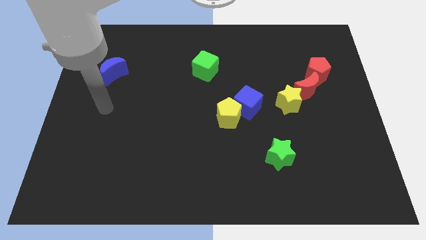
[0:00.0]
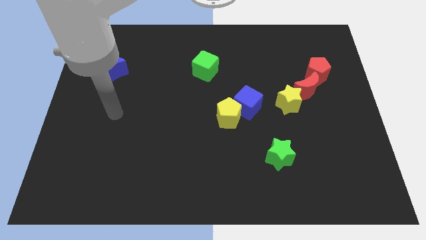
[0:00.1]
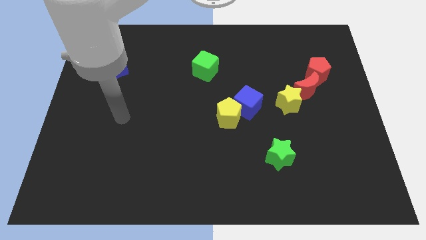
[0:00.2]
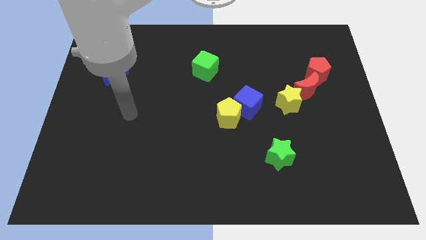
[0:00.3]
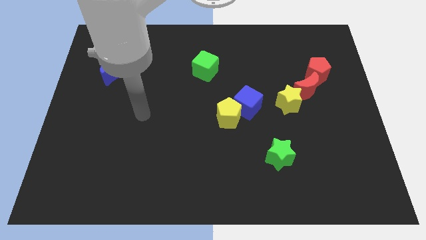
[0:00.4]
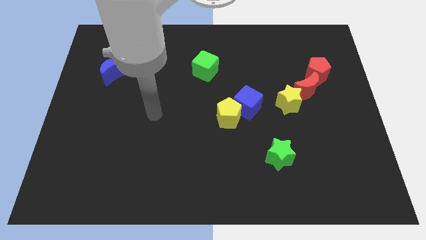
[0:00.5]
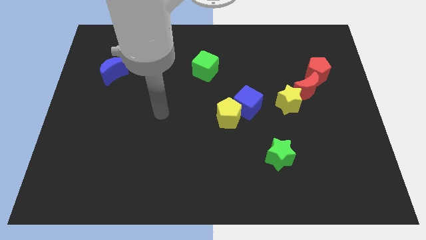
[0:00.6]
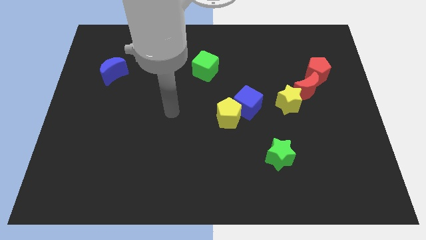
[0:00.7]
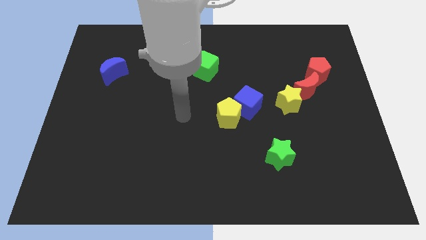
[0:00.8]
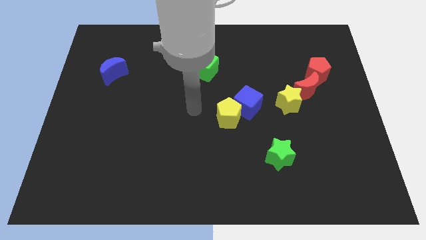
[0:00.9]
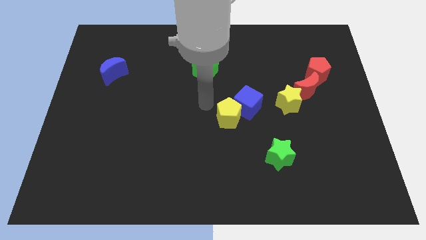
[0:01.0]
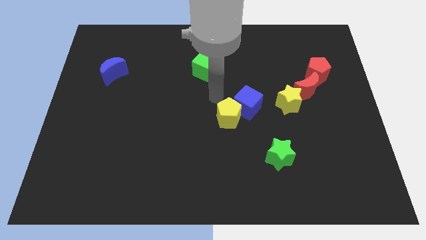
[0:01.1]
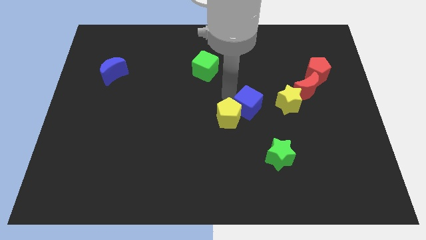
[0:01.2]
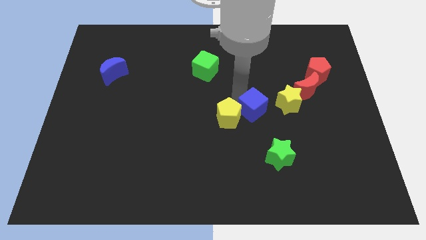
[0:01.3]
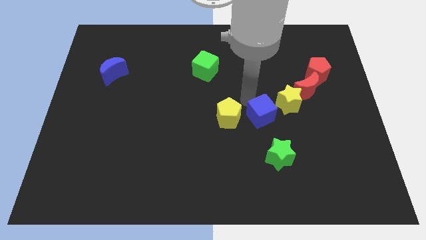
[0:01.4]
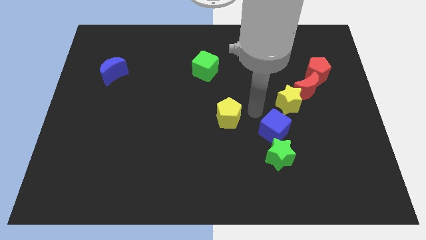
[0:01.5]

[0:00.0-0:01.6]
pull the yellow pentagon apart from the blue cube

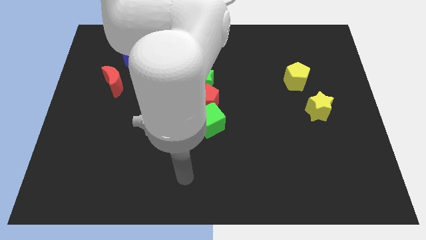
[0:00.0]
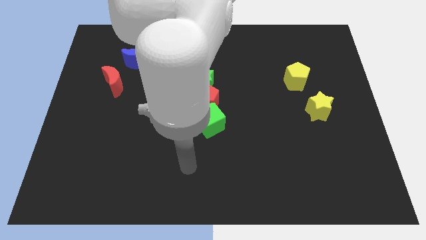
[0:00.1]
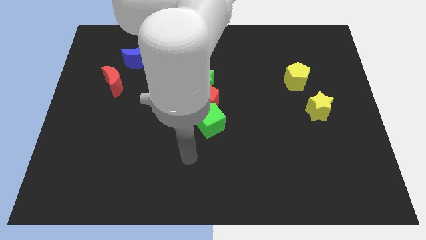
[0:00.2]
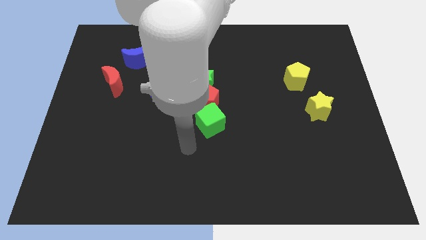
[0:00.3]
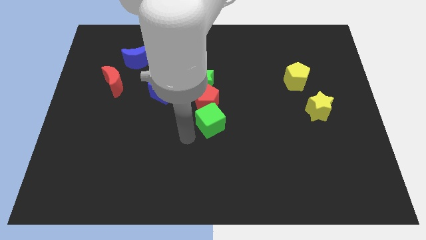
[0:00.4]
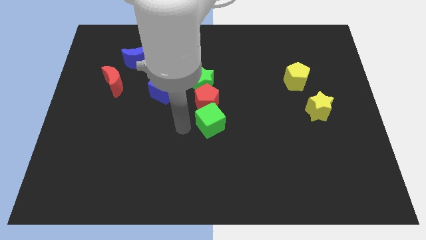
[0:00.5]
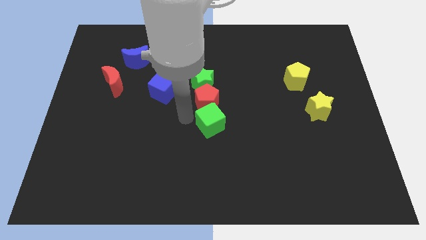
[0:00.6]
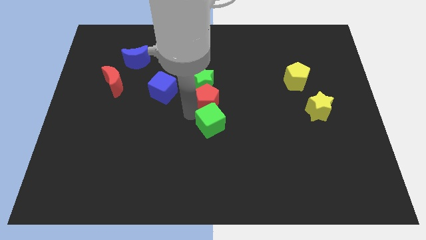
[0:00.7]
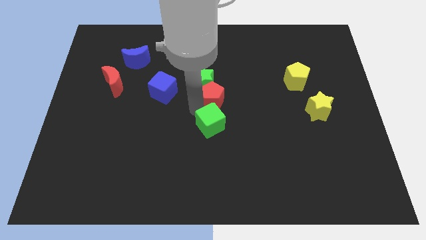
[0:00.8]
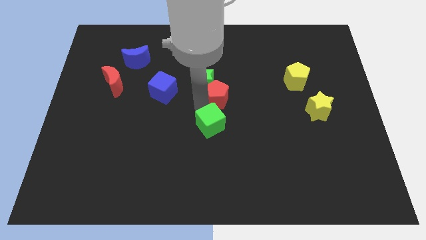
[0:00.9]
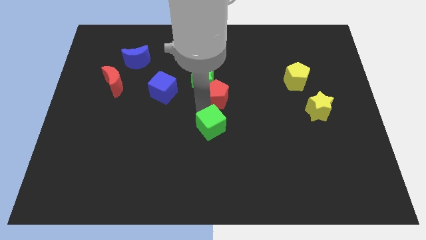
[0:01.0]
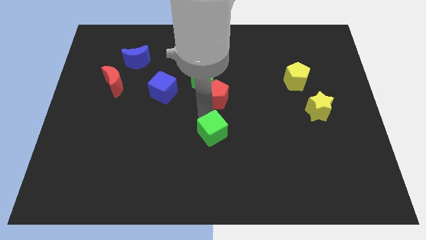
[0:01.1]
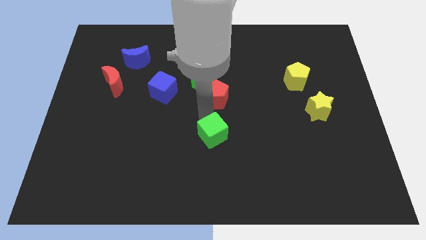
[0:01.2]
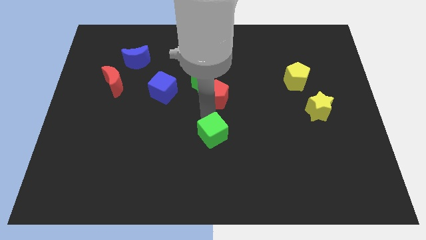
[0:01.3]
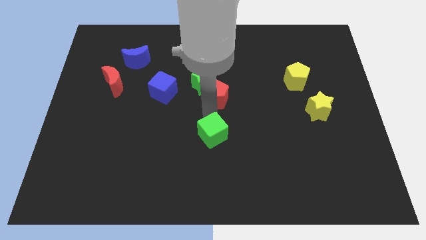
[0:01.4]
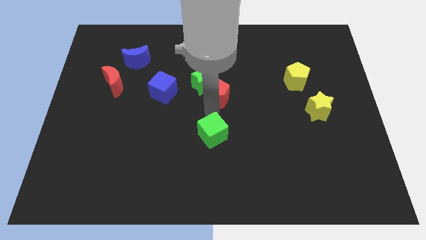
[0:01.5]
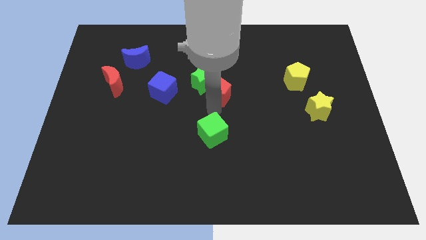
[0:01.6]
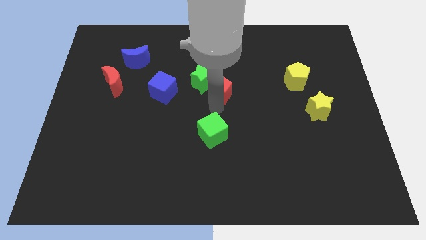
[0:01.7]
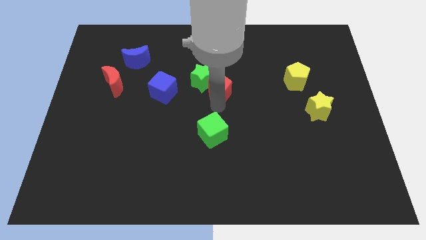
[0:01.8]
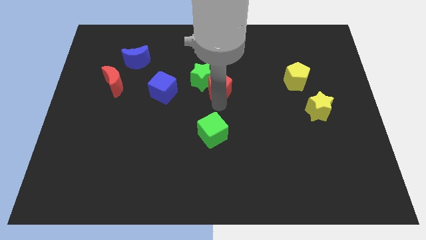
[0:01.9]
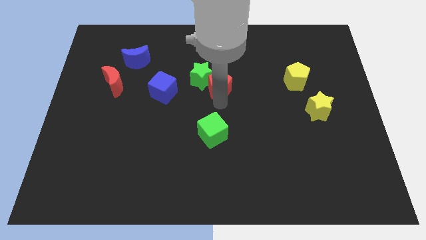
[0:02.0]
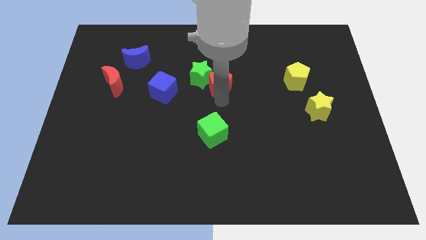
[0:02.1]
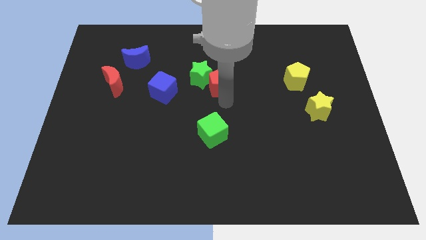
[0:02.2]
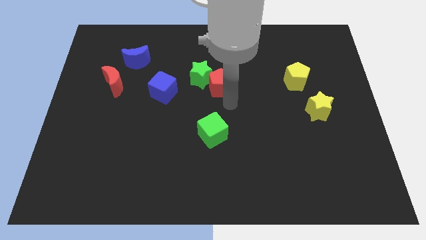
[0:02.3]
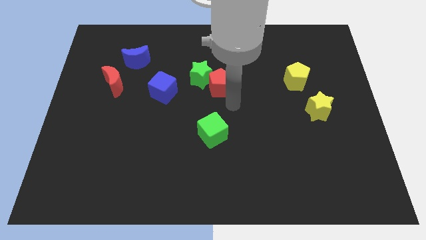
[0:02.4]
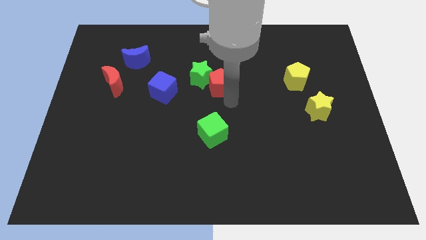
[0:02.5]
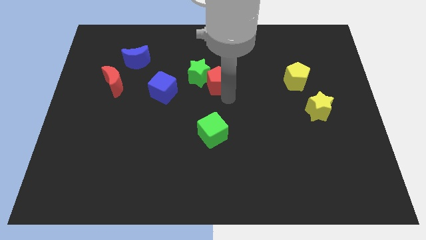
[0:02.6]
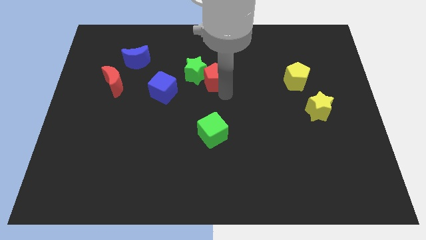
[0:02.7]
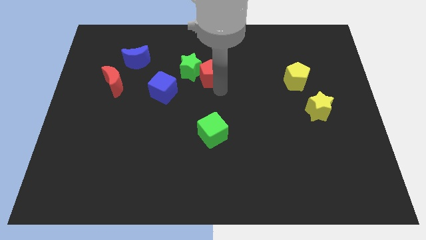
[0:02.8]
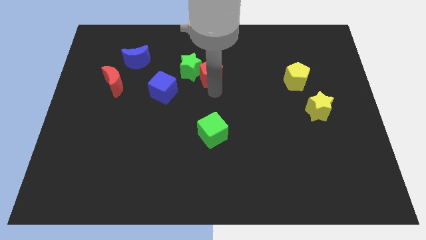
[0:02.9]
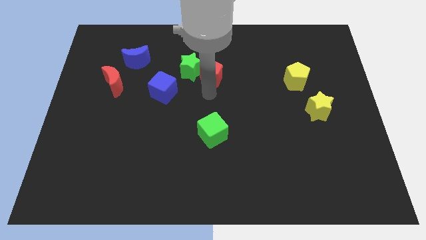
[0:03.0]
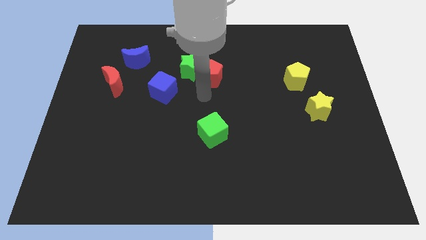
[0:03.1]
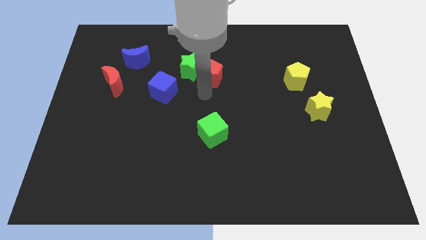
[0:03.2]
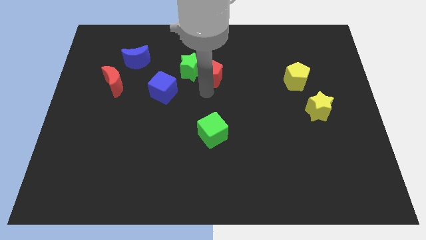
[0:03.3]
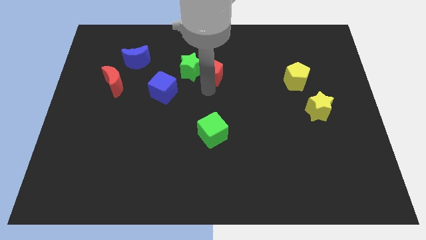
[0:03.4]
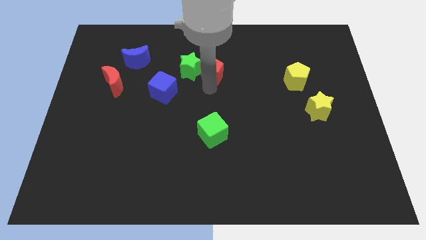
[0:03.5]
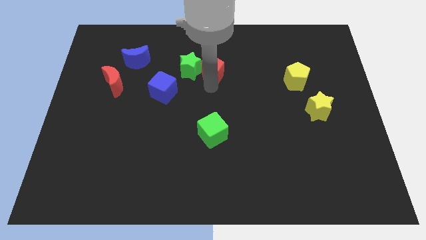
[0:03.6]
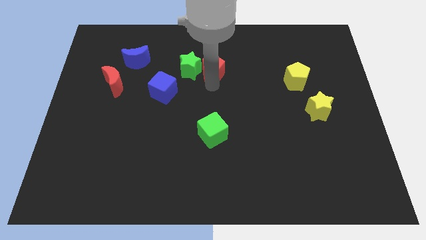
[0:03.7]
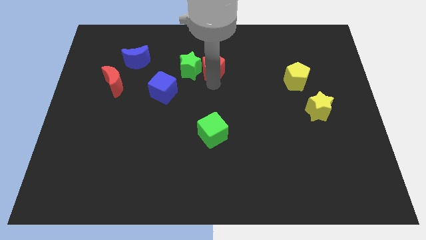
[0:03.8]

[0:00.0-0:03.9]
pull the red pentagon apart from the green star and green cube

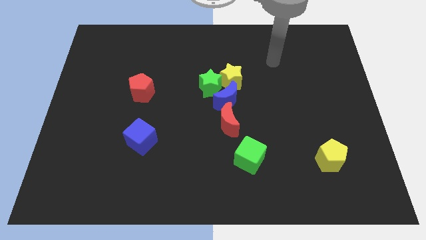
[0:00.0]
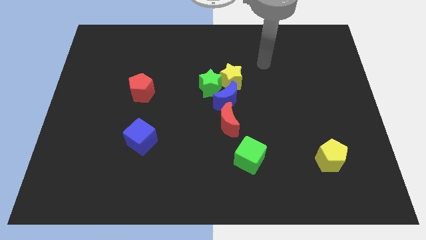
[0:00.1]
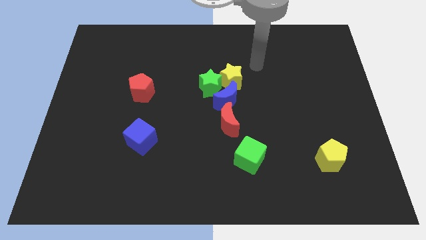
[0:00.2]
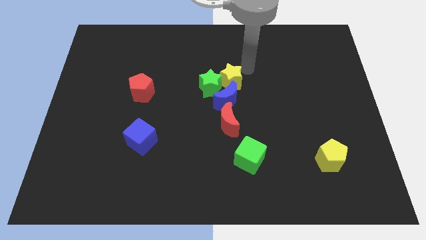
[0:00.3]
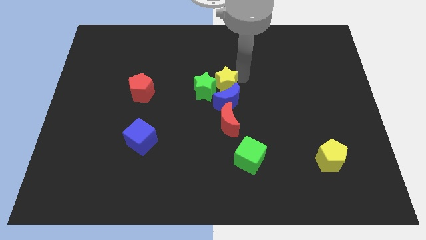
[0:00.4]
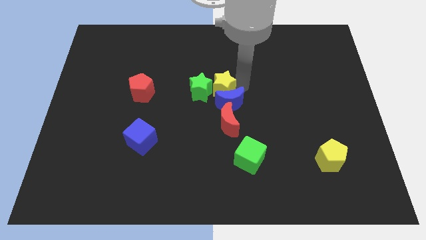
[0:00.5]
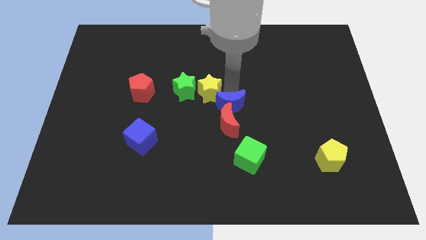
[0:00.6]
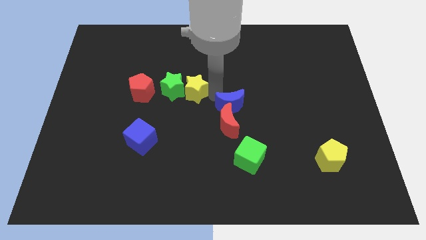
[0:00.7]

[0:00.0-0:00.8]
separate the green star from the yellow star and blue moon

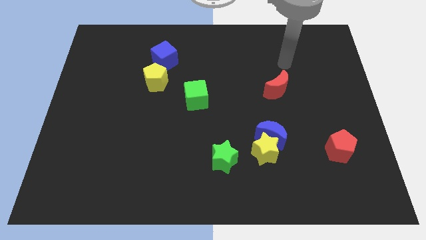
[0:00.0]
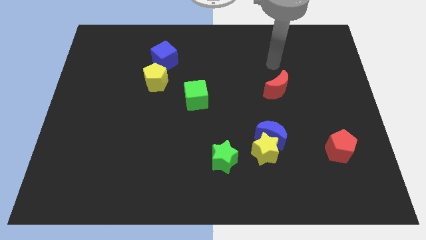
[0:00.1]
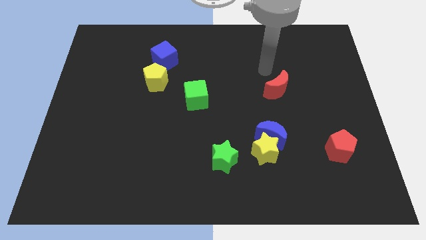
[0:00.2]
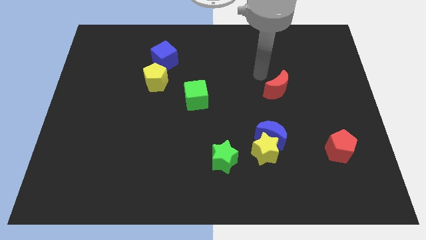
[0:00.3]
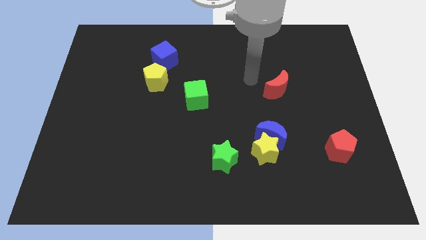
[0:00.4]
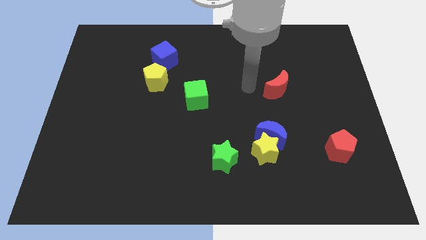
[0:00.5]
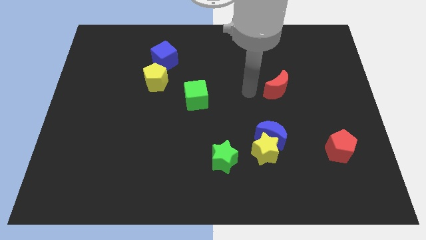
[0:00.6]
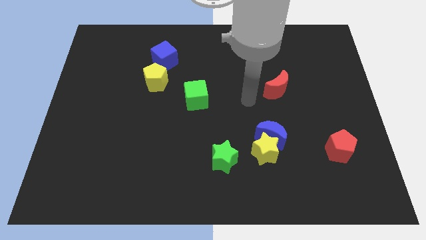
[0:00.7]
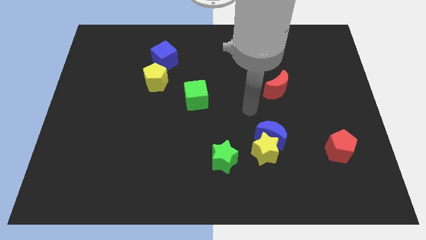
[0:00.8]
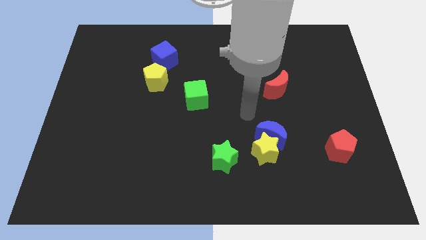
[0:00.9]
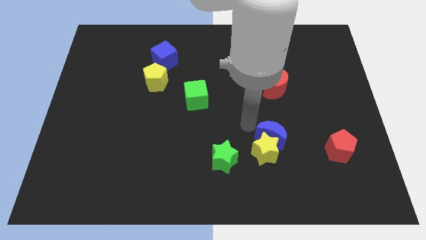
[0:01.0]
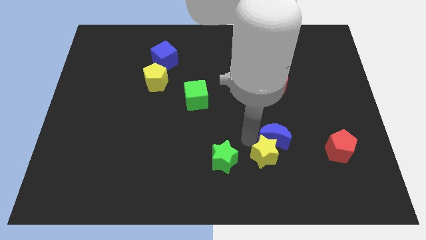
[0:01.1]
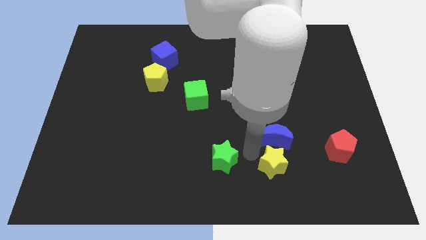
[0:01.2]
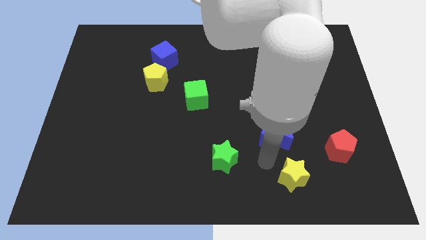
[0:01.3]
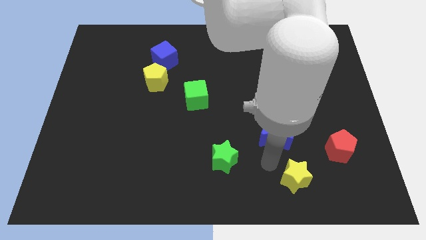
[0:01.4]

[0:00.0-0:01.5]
move the blue moon away from the yellow star

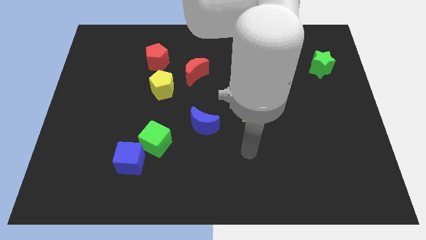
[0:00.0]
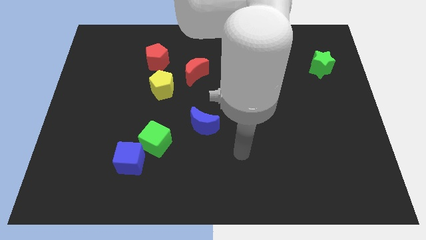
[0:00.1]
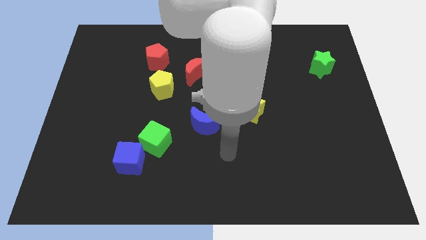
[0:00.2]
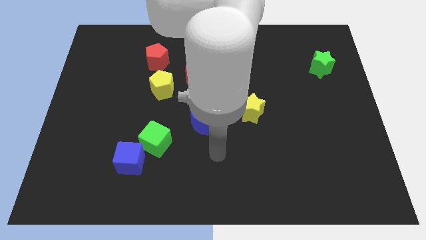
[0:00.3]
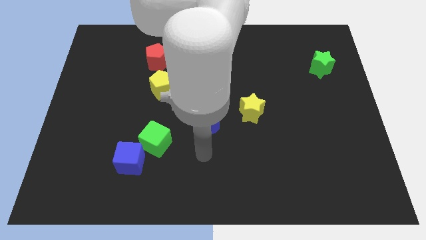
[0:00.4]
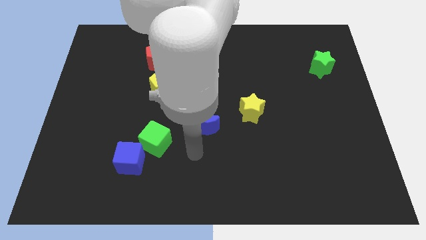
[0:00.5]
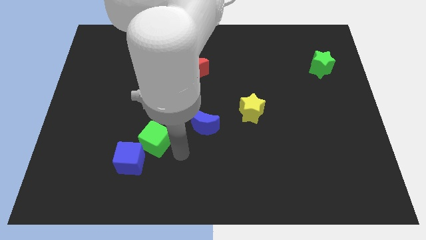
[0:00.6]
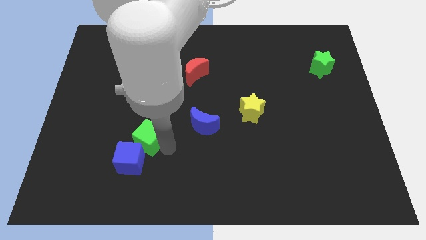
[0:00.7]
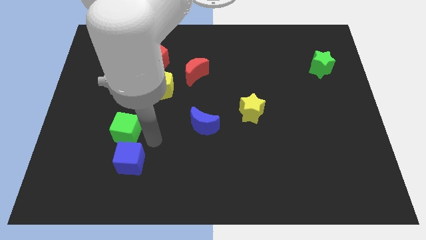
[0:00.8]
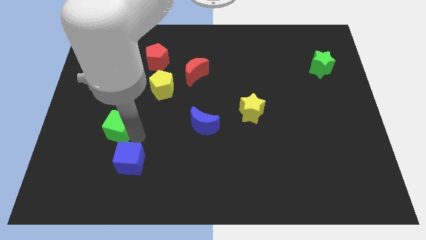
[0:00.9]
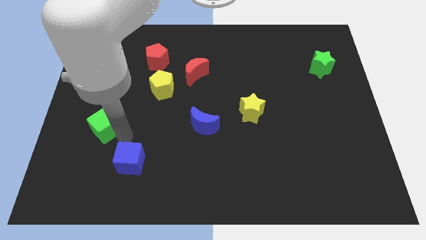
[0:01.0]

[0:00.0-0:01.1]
move the blue cube away from the green cube

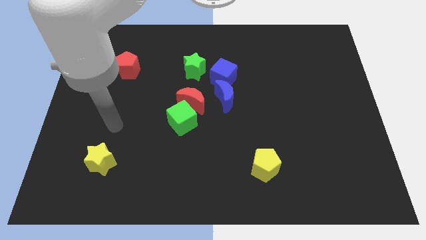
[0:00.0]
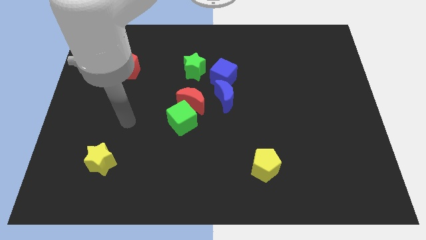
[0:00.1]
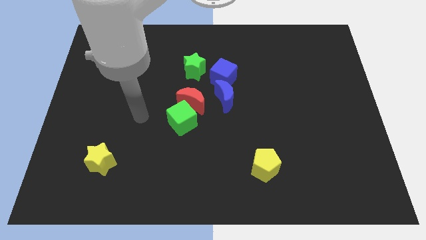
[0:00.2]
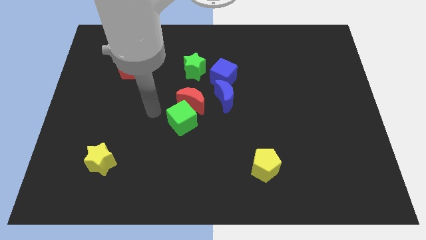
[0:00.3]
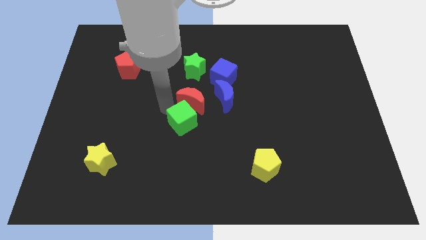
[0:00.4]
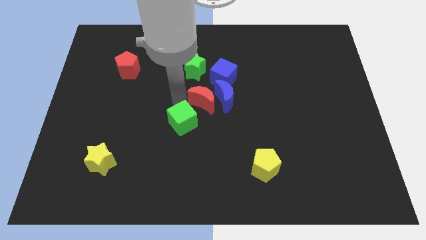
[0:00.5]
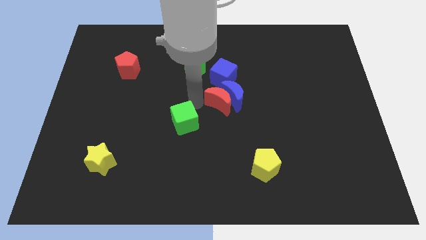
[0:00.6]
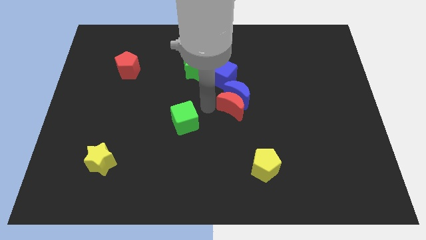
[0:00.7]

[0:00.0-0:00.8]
separate the green cube from the red moon
